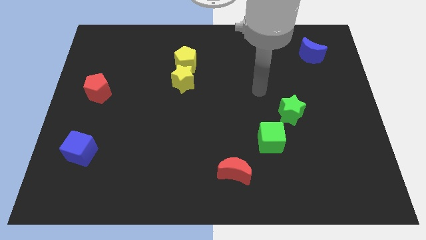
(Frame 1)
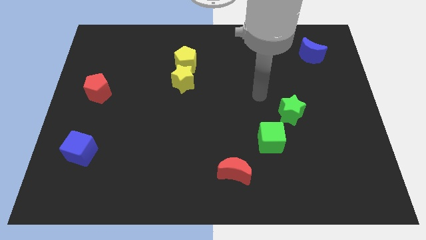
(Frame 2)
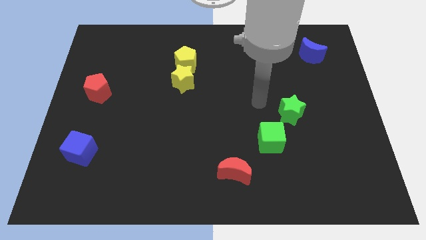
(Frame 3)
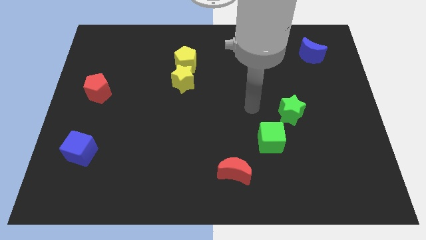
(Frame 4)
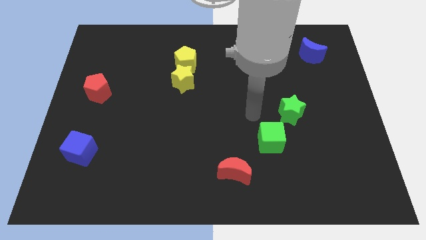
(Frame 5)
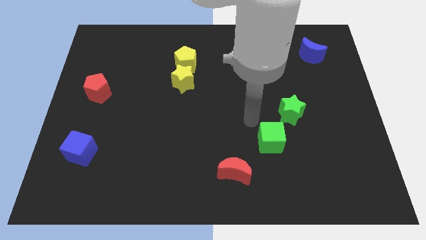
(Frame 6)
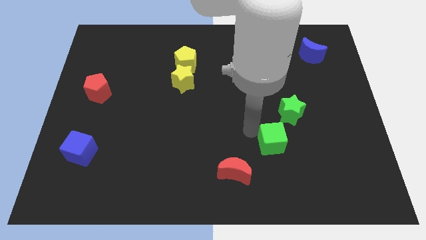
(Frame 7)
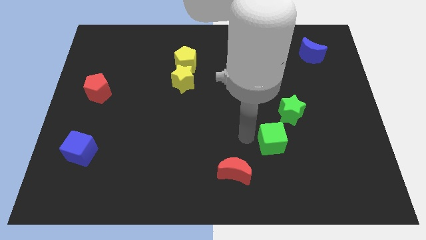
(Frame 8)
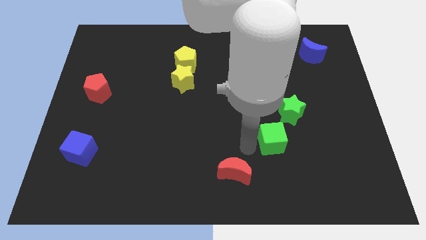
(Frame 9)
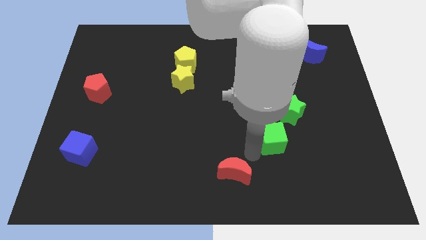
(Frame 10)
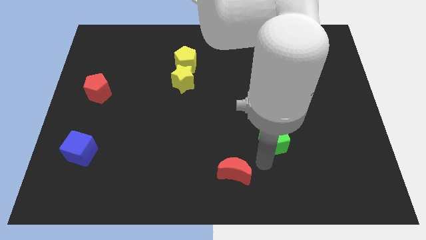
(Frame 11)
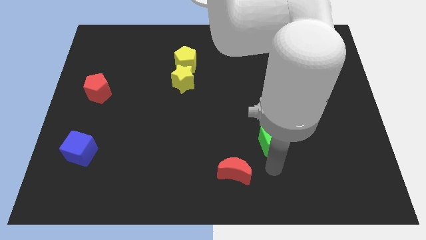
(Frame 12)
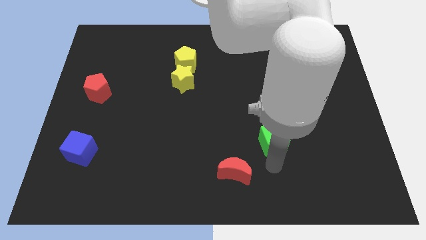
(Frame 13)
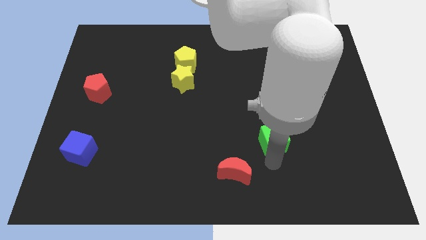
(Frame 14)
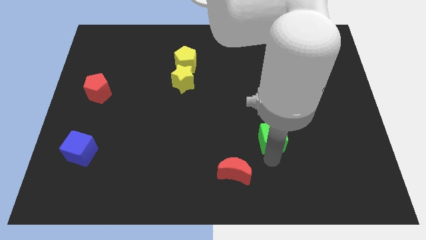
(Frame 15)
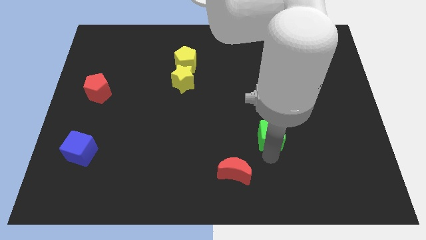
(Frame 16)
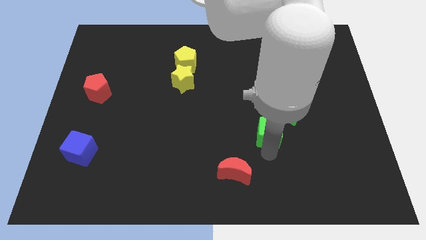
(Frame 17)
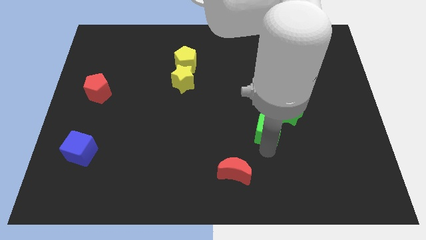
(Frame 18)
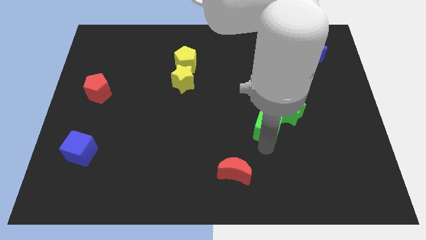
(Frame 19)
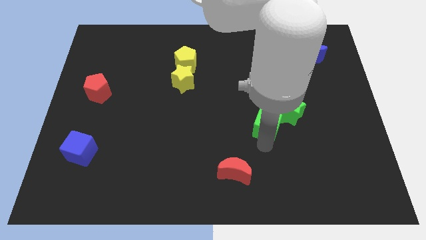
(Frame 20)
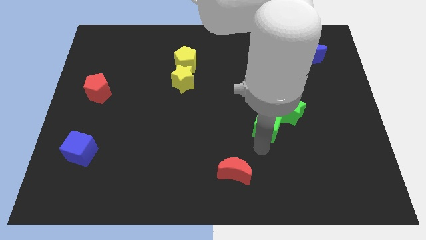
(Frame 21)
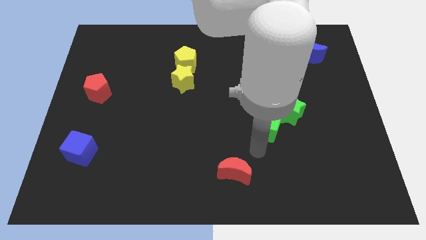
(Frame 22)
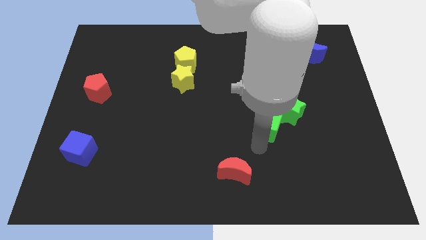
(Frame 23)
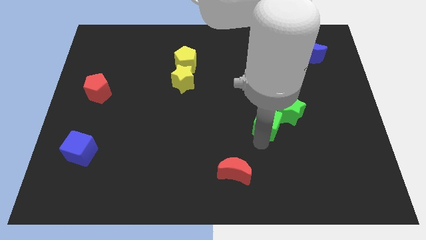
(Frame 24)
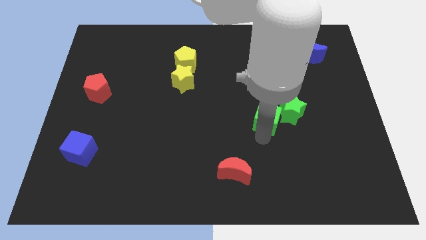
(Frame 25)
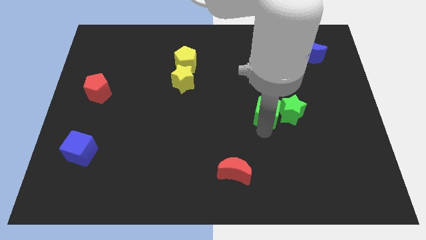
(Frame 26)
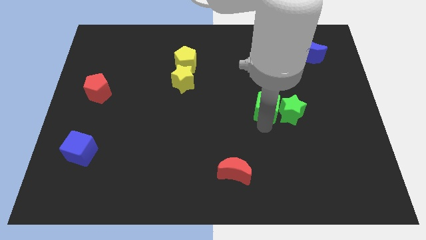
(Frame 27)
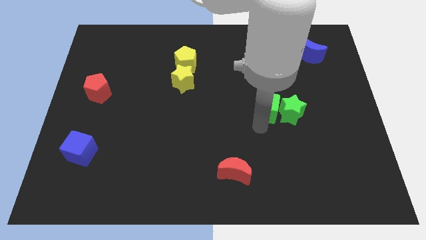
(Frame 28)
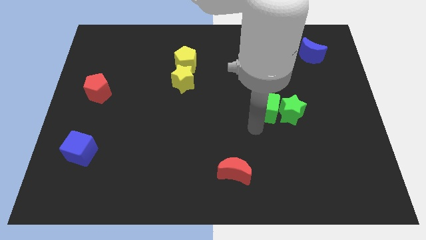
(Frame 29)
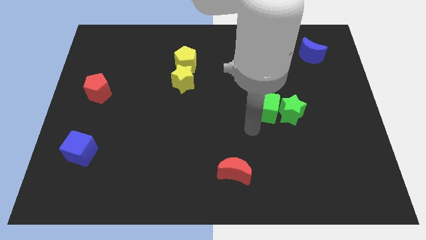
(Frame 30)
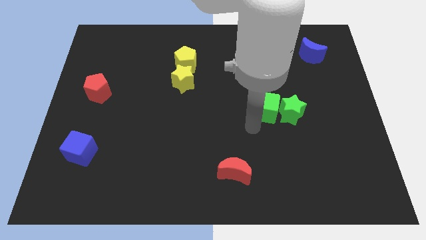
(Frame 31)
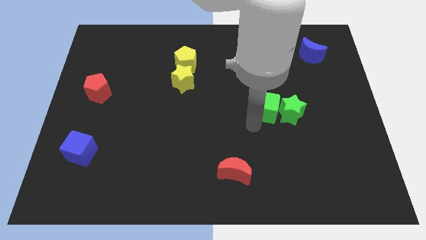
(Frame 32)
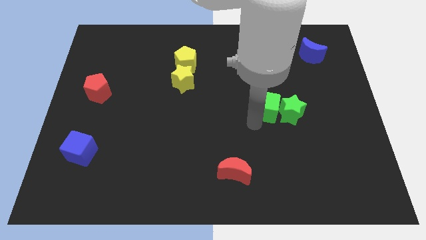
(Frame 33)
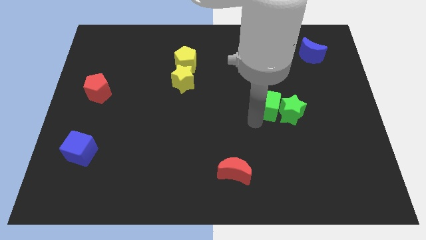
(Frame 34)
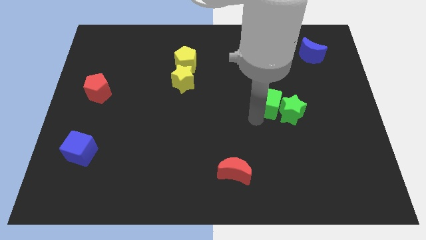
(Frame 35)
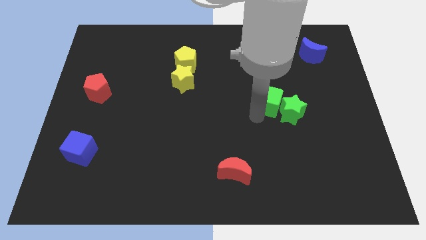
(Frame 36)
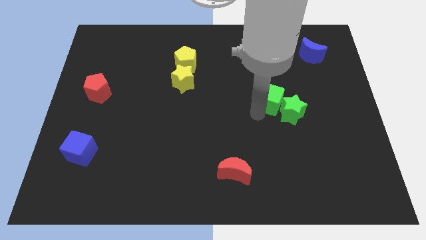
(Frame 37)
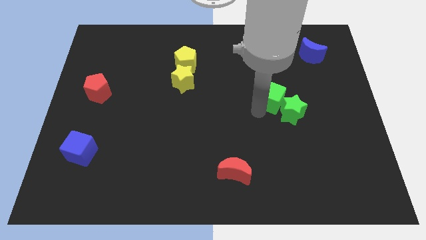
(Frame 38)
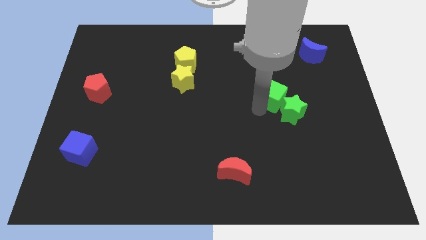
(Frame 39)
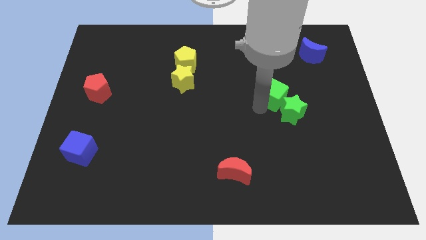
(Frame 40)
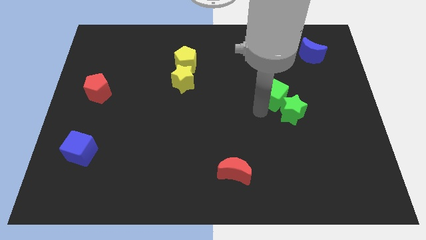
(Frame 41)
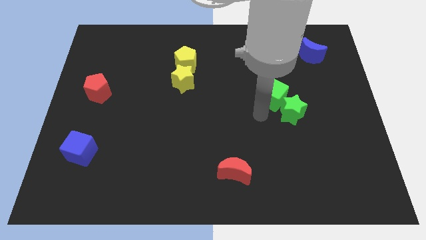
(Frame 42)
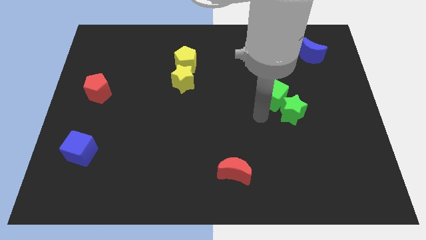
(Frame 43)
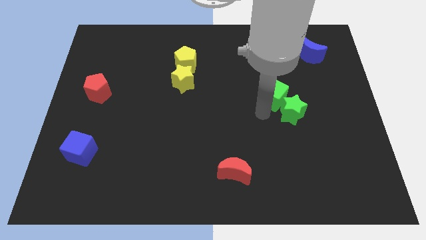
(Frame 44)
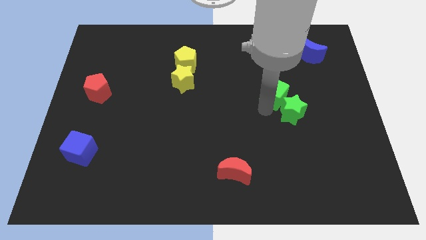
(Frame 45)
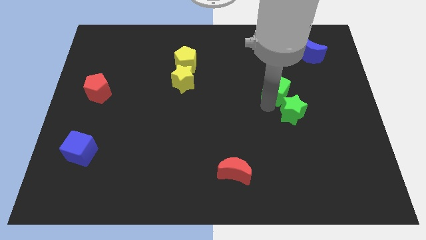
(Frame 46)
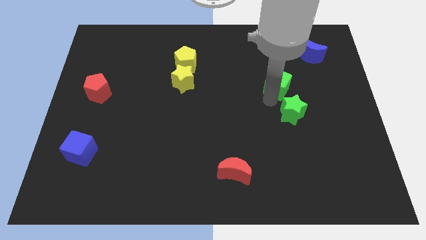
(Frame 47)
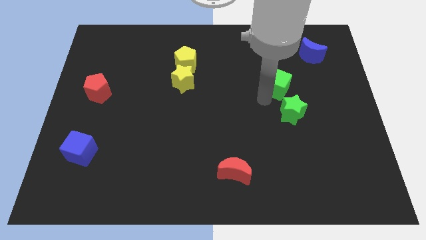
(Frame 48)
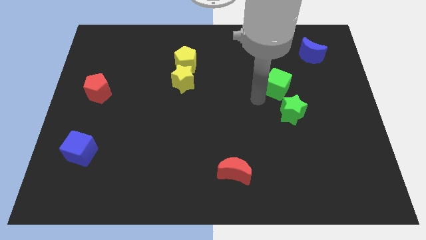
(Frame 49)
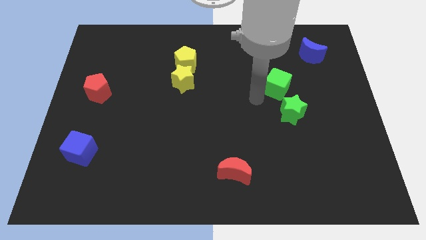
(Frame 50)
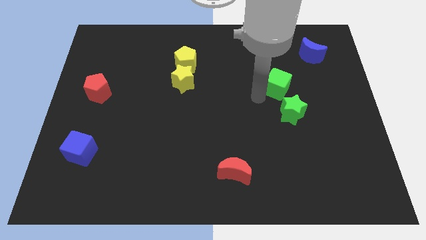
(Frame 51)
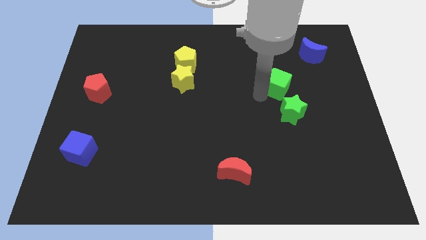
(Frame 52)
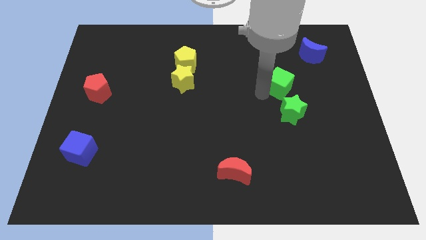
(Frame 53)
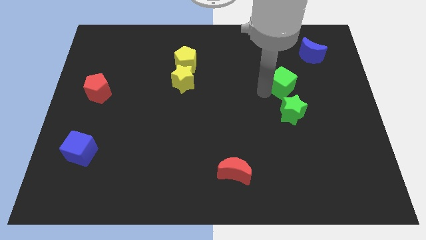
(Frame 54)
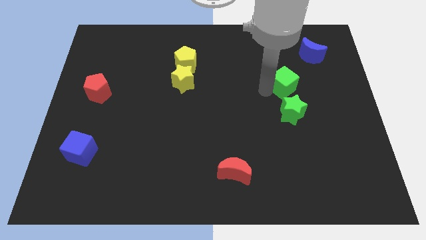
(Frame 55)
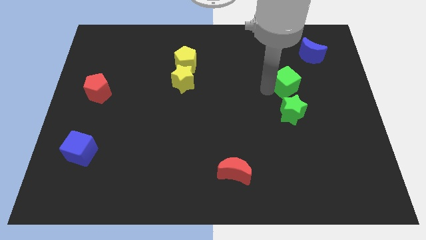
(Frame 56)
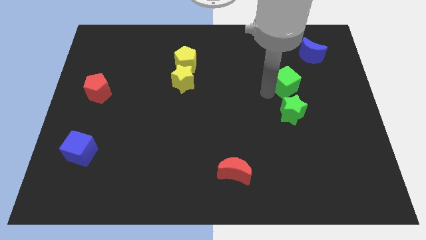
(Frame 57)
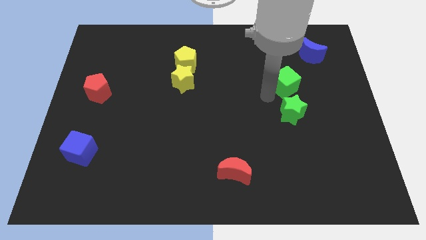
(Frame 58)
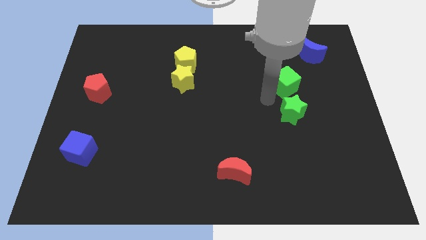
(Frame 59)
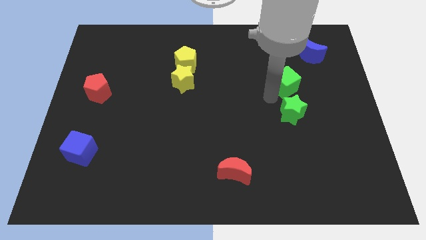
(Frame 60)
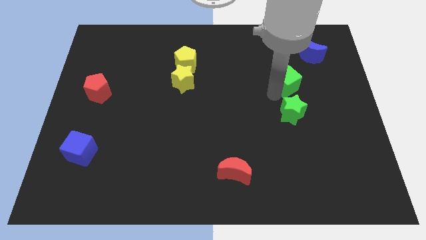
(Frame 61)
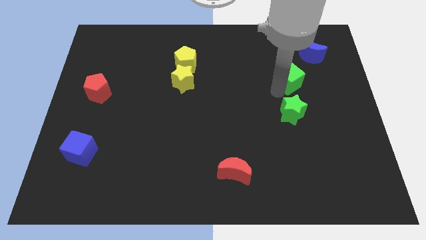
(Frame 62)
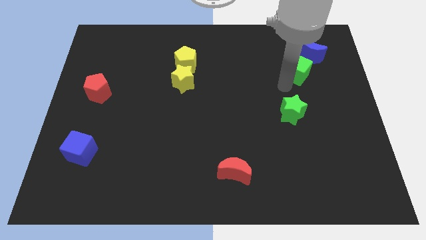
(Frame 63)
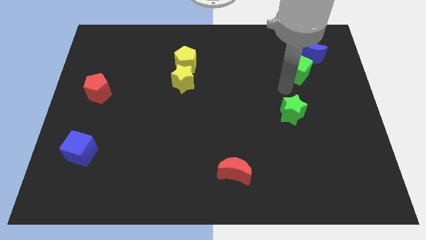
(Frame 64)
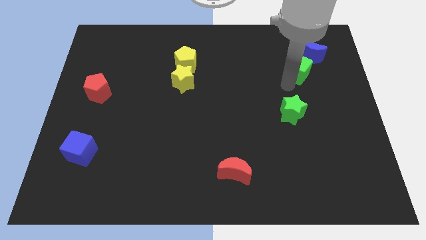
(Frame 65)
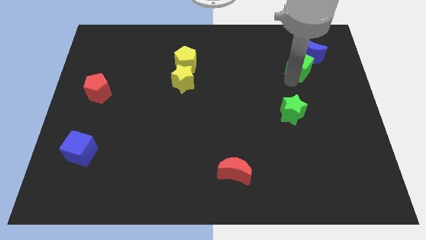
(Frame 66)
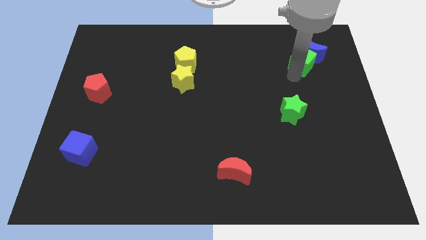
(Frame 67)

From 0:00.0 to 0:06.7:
slide the green cube to the blue moon
